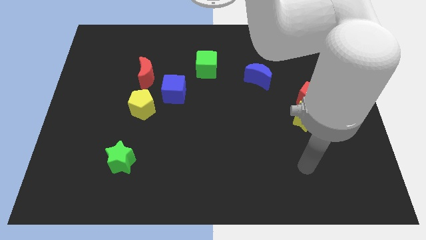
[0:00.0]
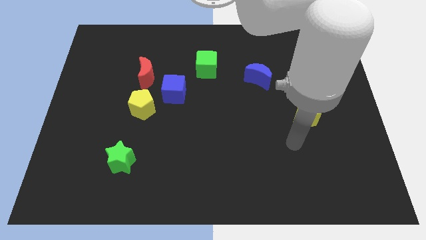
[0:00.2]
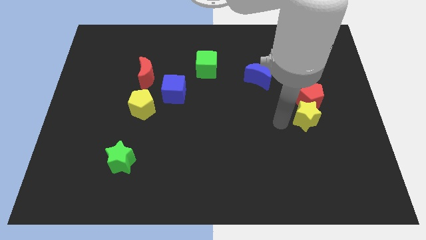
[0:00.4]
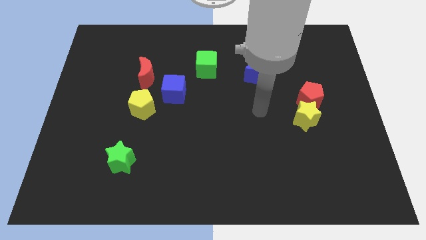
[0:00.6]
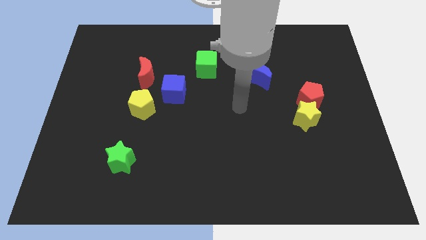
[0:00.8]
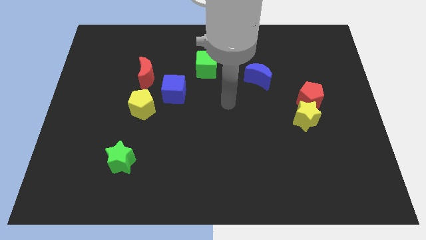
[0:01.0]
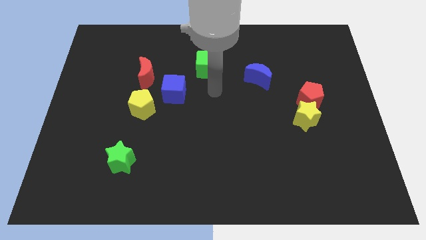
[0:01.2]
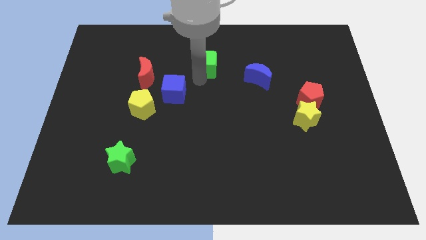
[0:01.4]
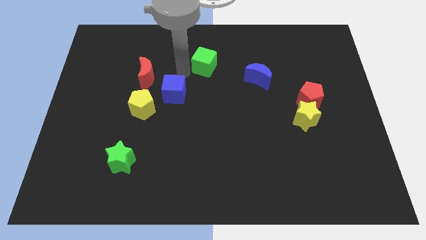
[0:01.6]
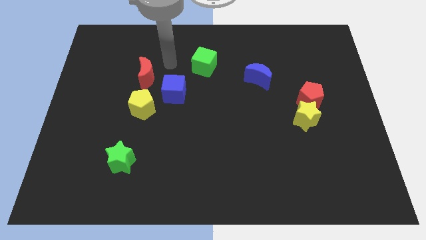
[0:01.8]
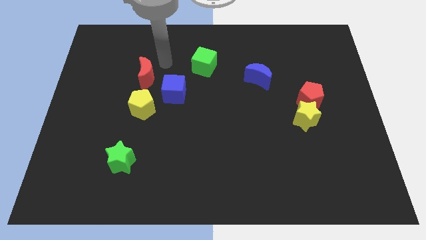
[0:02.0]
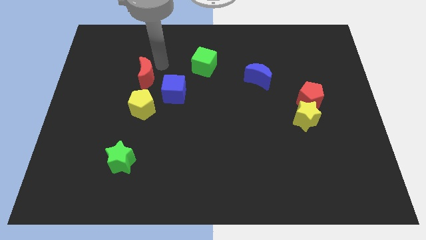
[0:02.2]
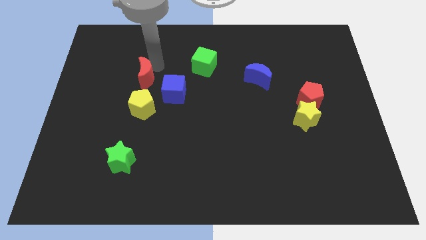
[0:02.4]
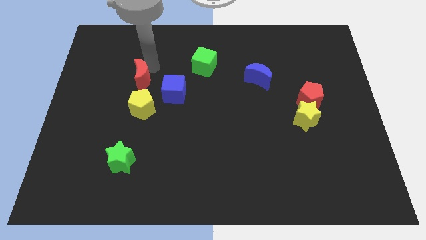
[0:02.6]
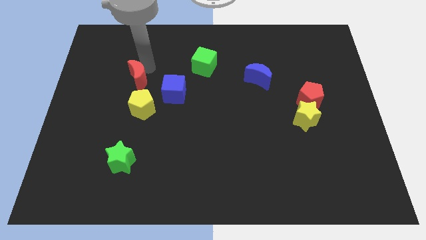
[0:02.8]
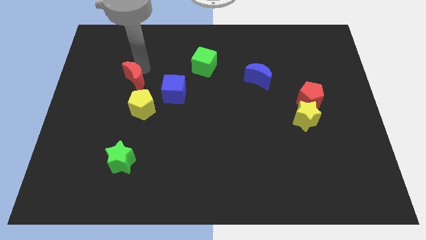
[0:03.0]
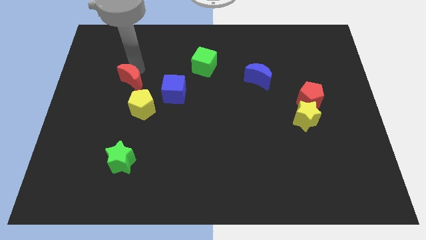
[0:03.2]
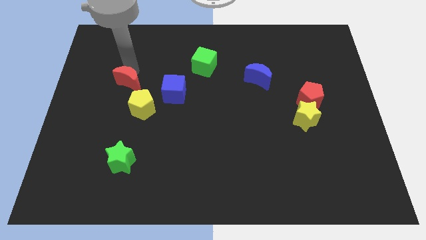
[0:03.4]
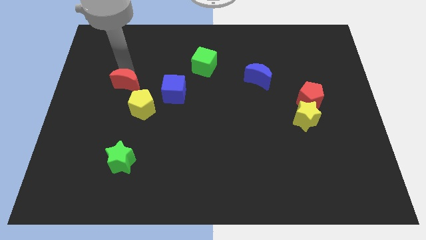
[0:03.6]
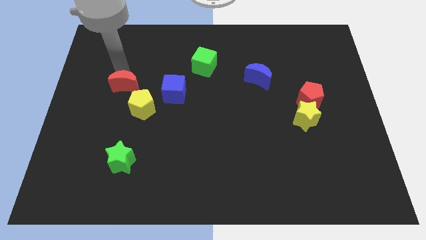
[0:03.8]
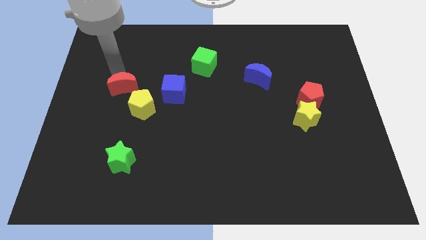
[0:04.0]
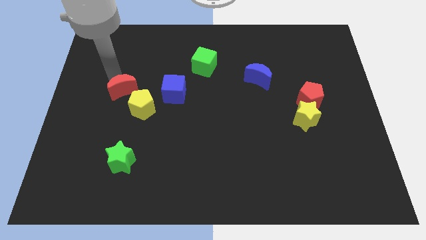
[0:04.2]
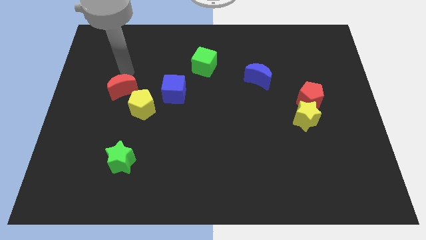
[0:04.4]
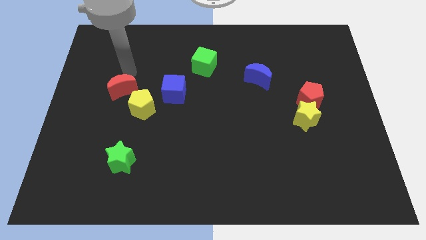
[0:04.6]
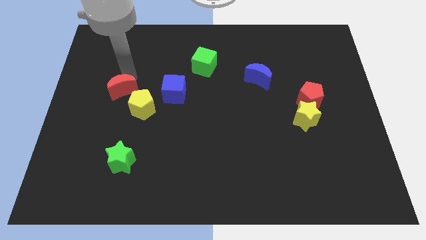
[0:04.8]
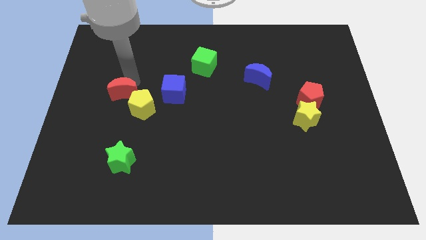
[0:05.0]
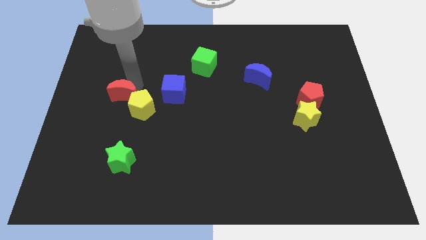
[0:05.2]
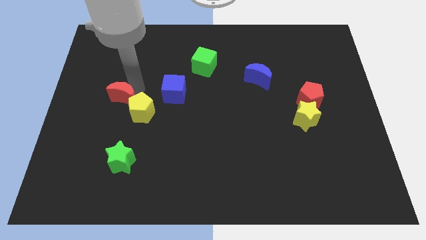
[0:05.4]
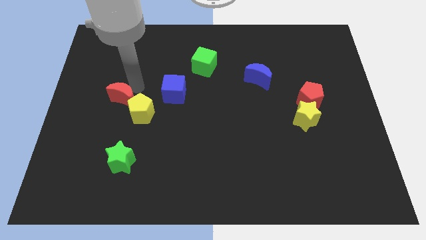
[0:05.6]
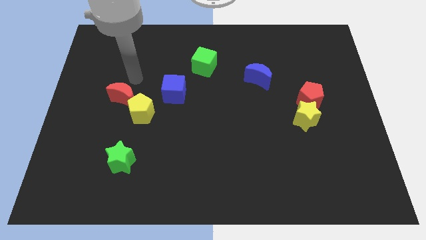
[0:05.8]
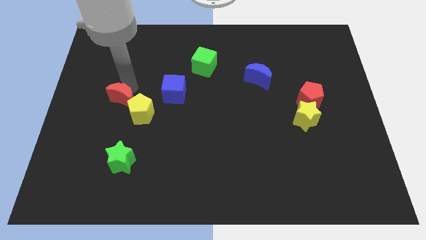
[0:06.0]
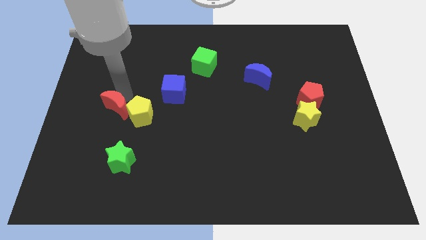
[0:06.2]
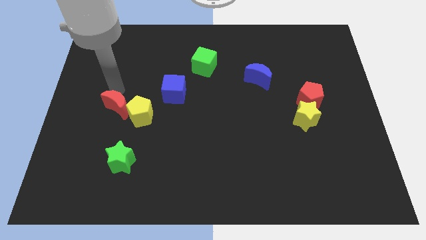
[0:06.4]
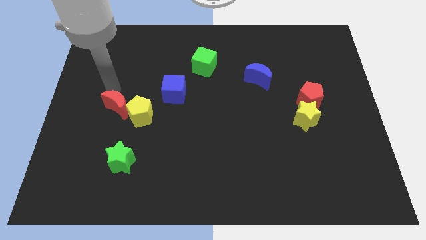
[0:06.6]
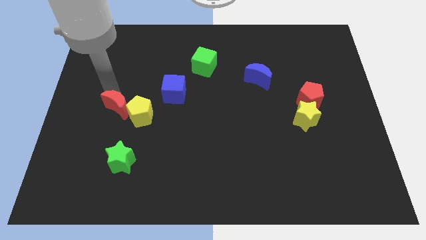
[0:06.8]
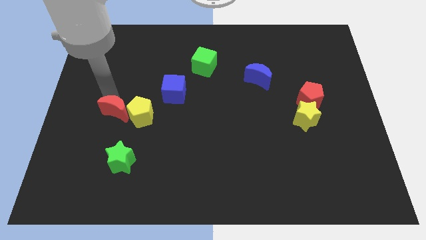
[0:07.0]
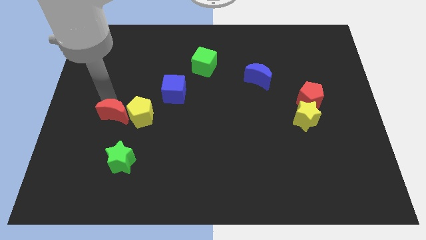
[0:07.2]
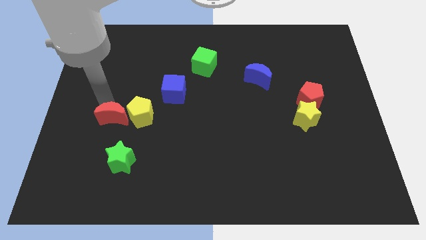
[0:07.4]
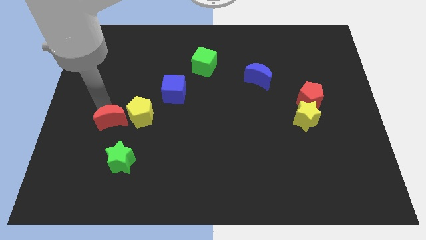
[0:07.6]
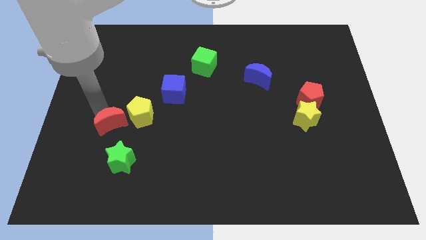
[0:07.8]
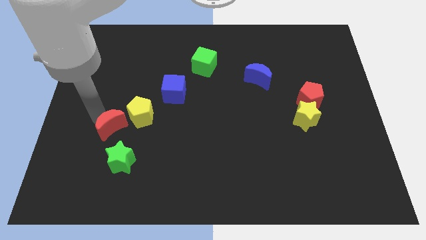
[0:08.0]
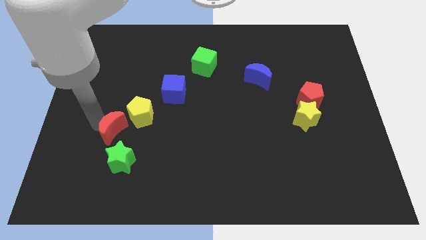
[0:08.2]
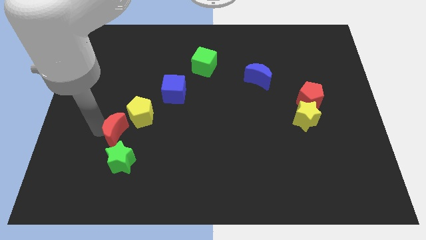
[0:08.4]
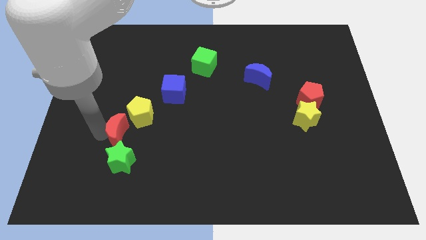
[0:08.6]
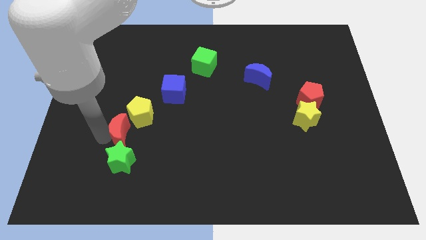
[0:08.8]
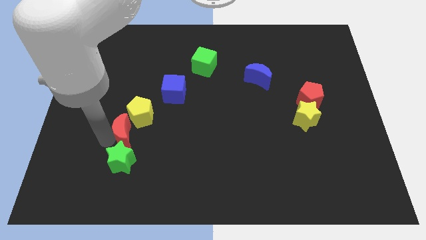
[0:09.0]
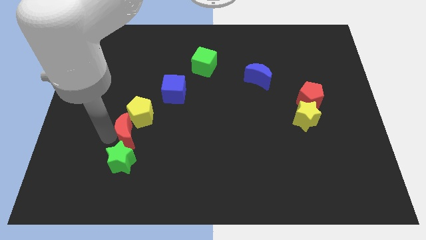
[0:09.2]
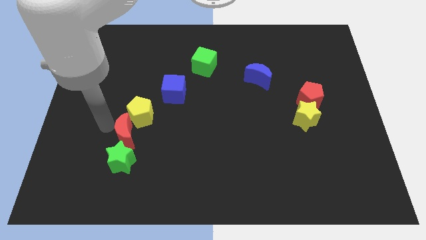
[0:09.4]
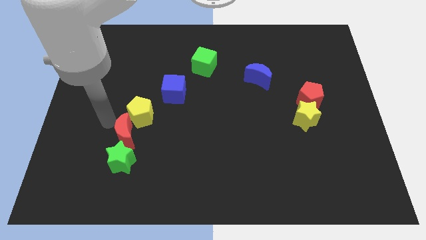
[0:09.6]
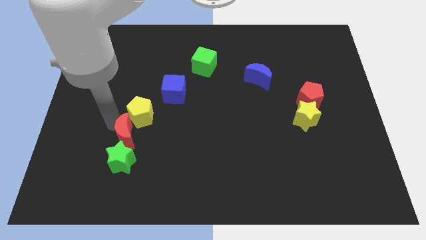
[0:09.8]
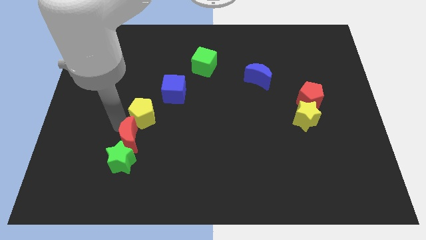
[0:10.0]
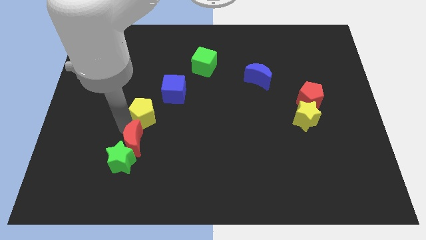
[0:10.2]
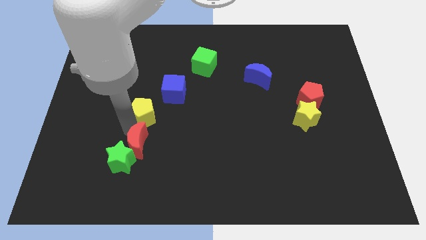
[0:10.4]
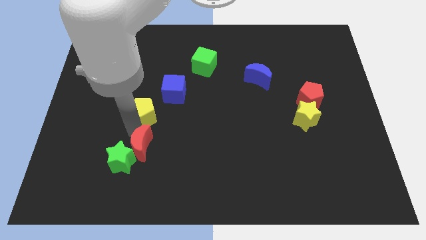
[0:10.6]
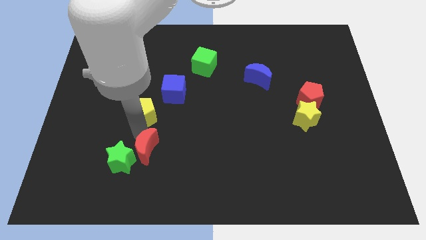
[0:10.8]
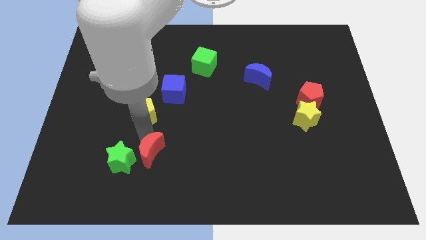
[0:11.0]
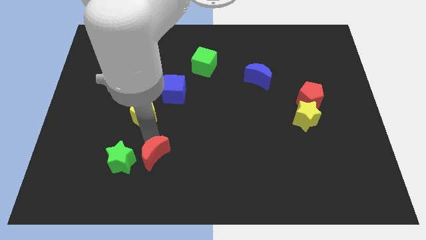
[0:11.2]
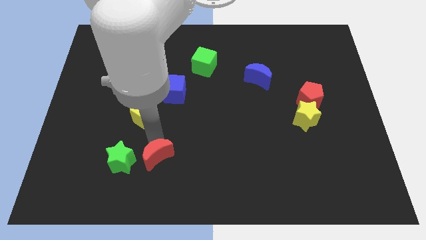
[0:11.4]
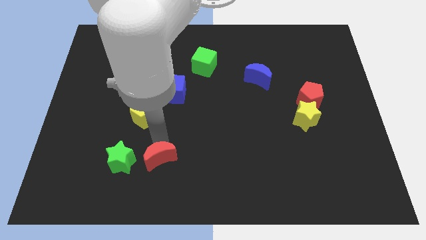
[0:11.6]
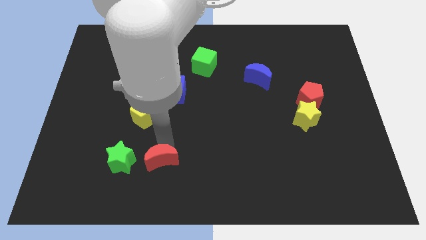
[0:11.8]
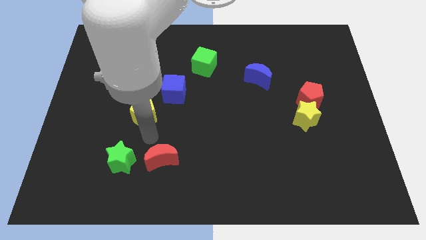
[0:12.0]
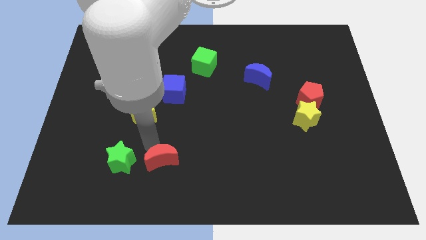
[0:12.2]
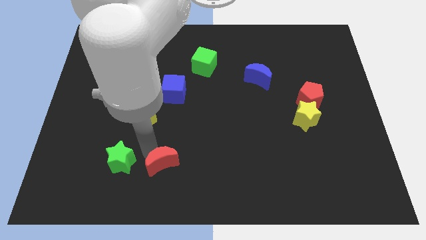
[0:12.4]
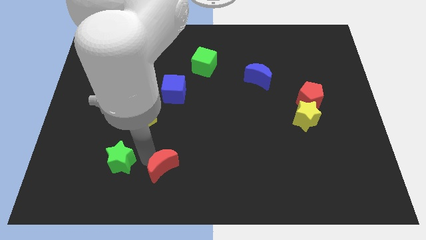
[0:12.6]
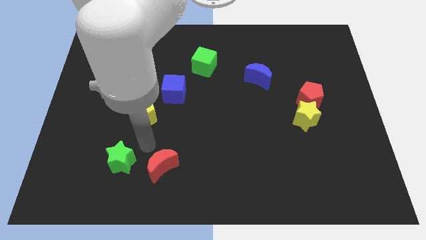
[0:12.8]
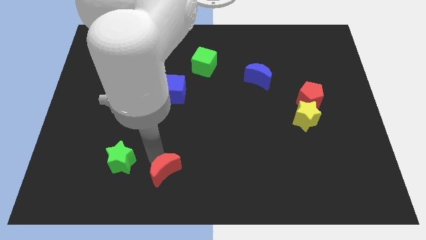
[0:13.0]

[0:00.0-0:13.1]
put the red moon to the bottom
